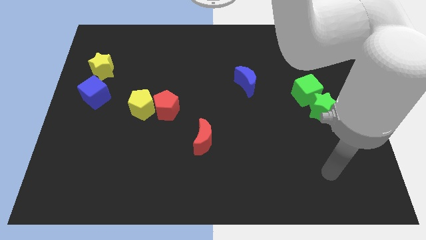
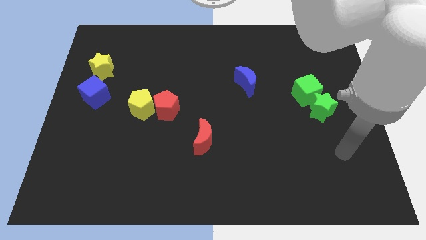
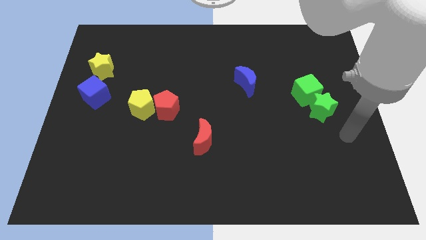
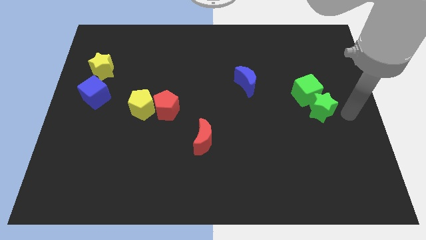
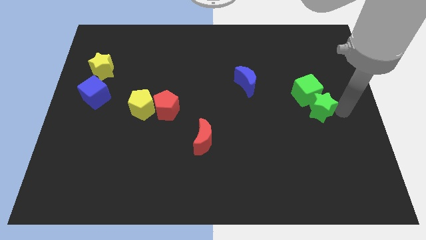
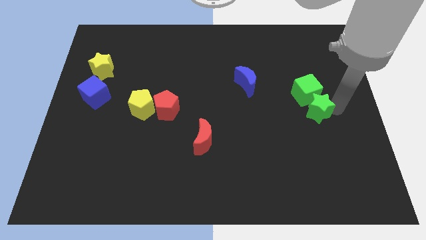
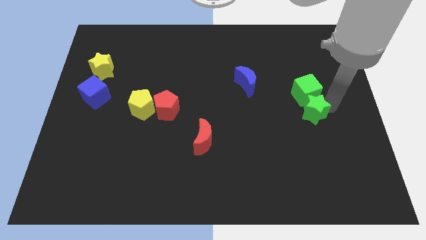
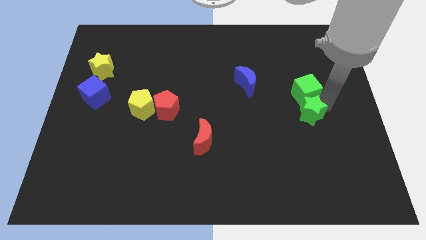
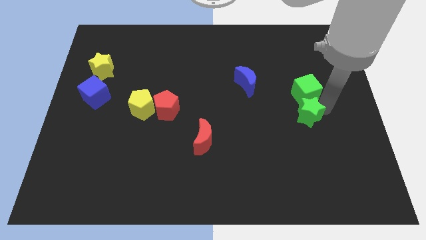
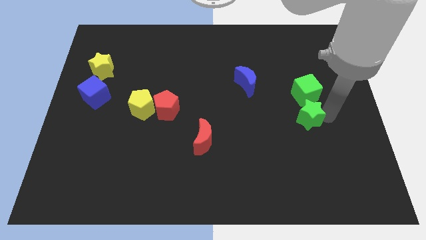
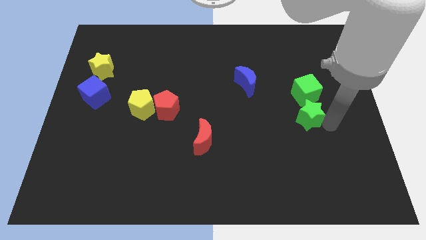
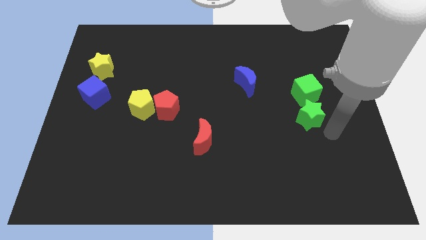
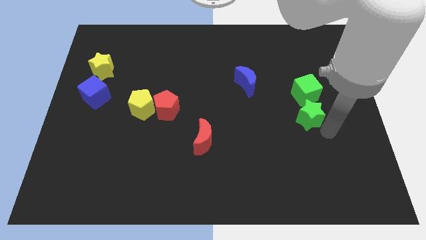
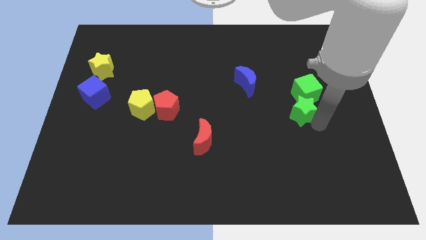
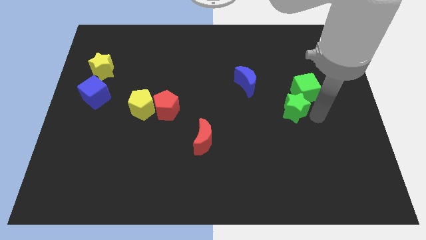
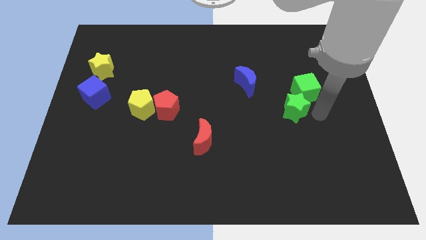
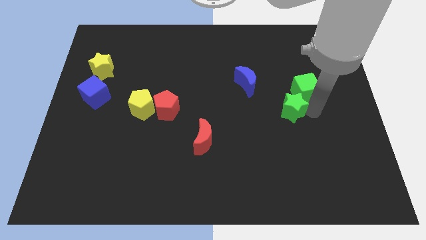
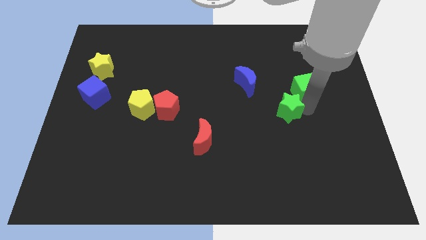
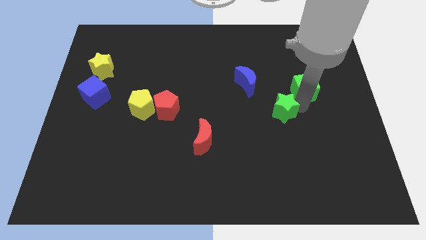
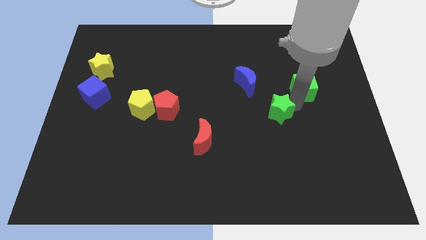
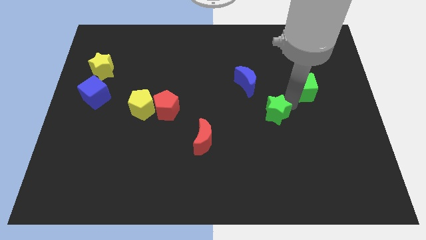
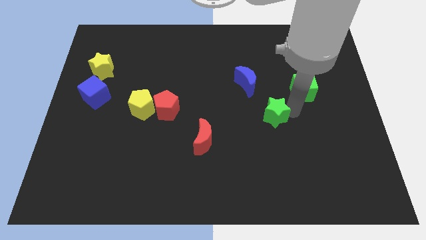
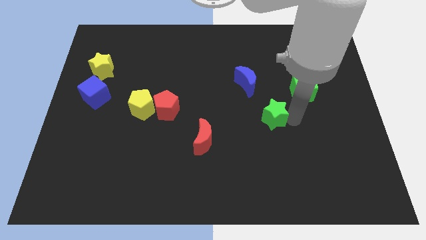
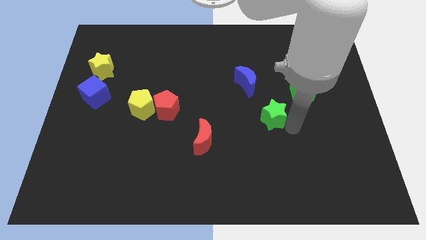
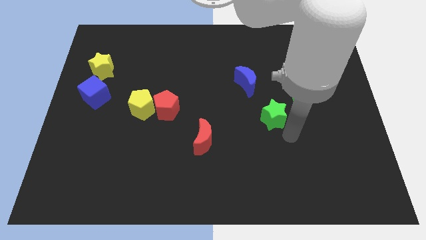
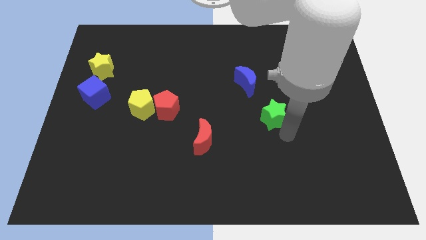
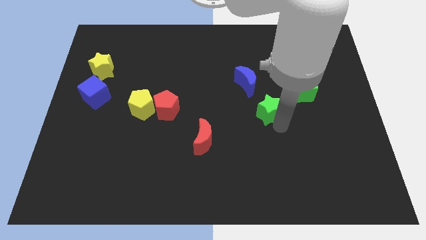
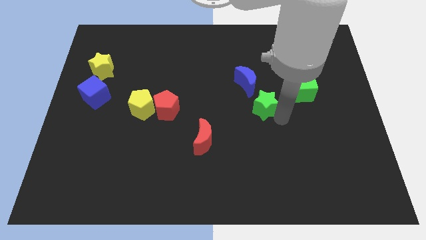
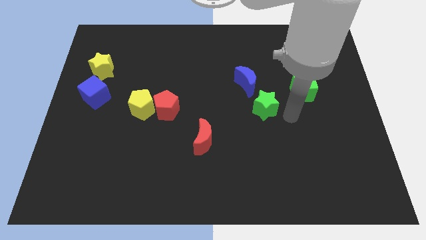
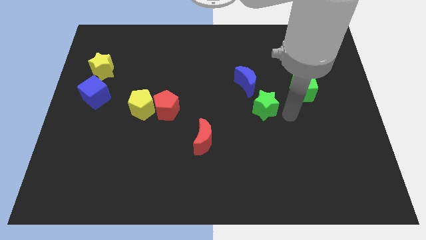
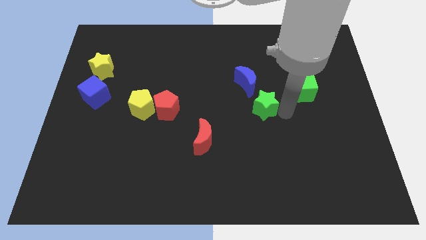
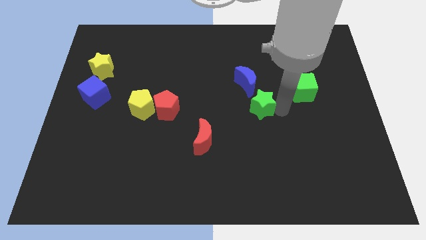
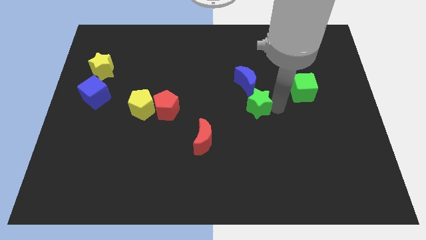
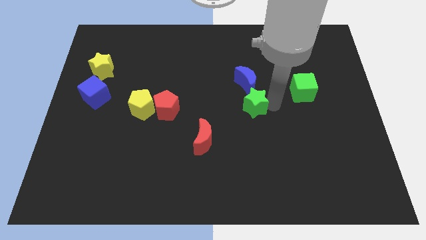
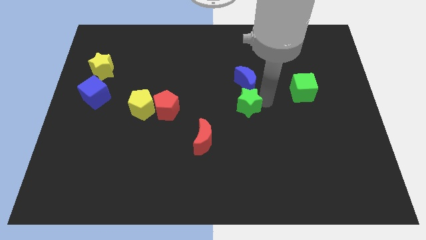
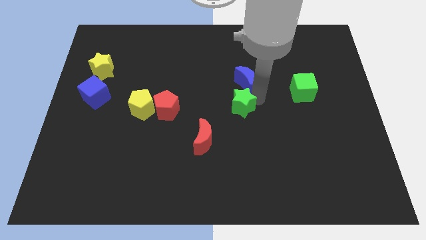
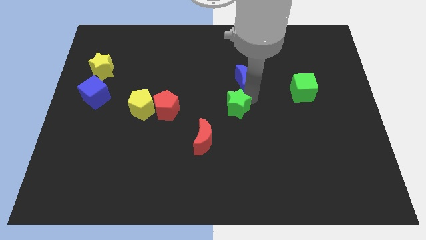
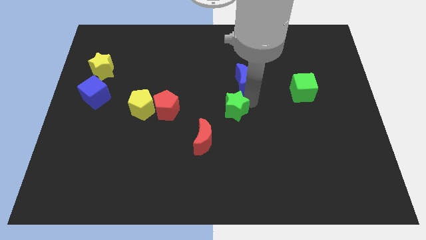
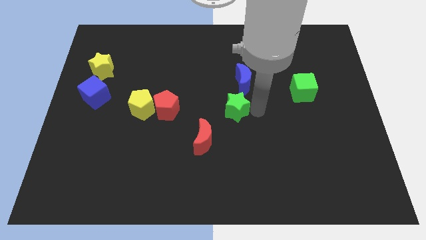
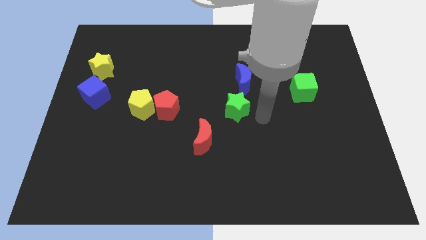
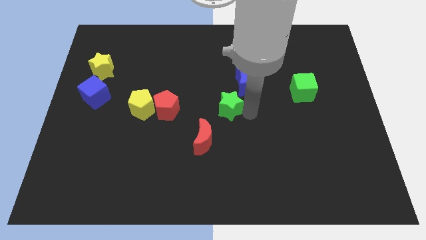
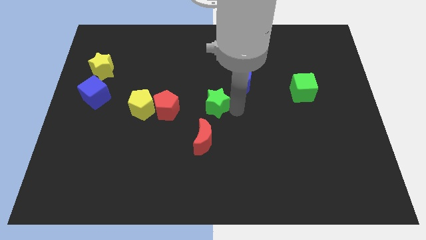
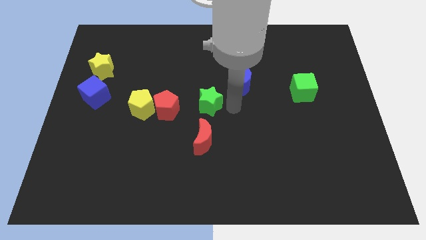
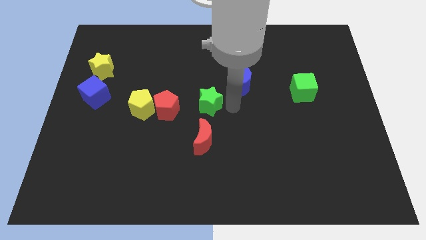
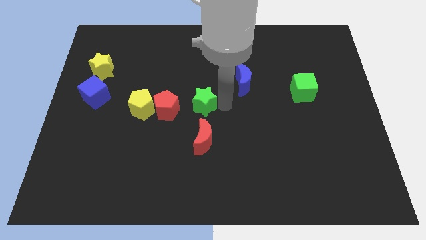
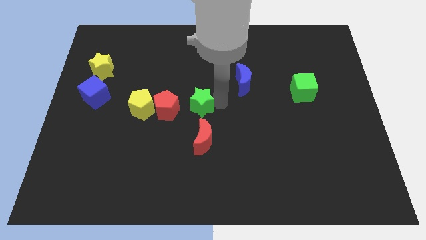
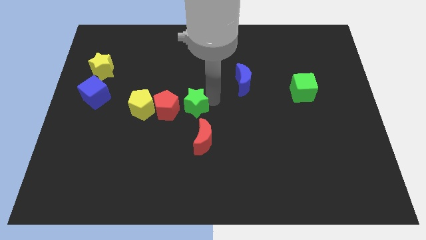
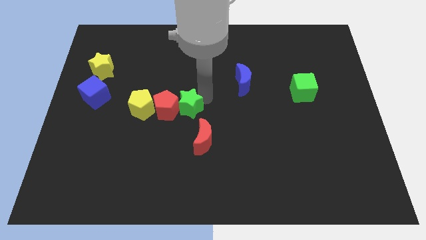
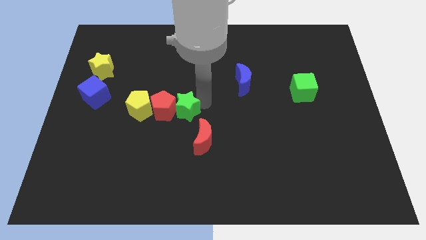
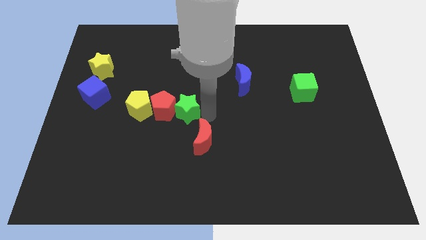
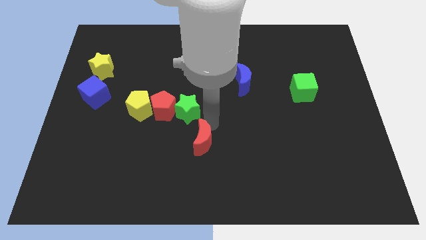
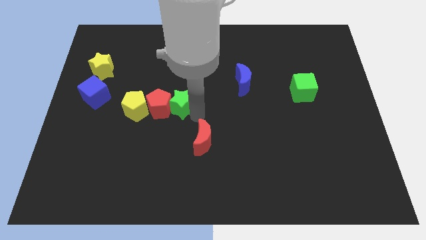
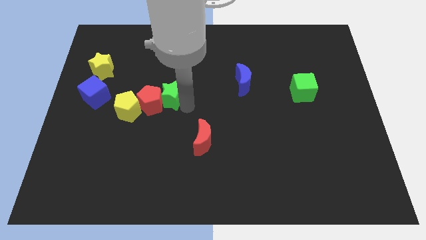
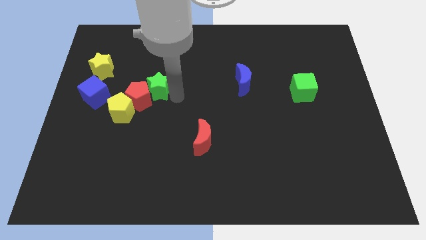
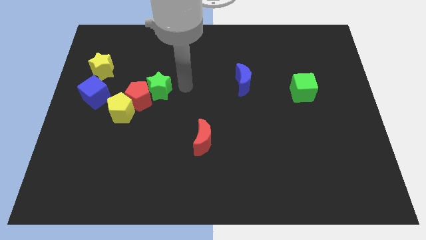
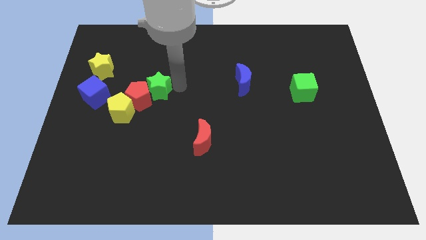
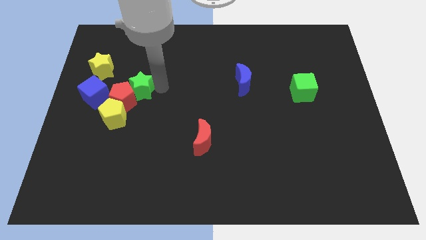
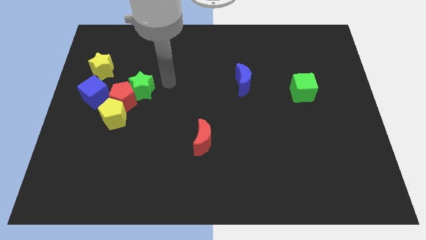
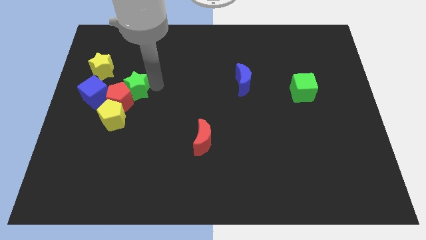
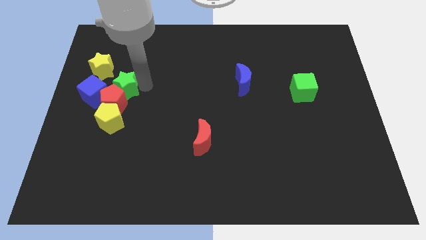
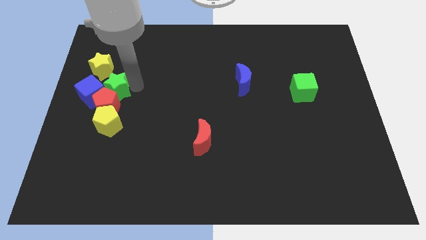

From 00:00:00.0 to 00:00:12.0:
slide the green star towards the blue cube

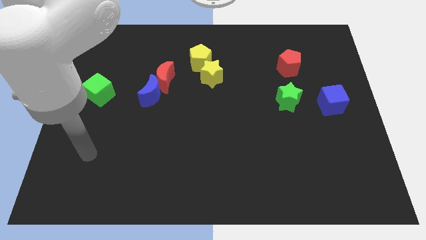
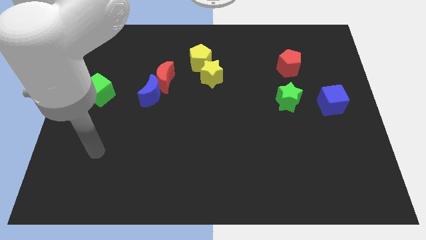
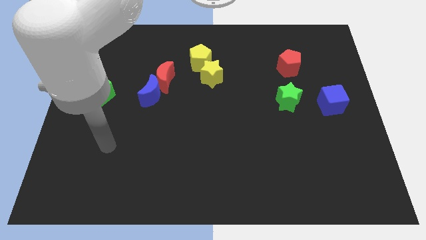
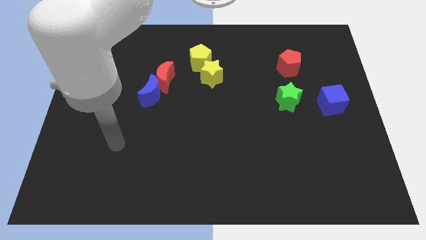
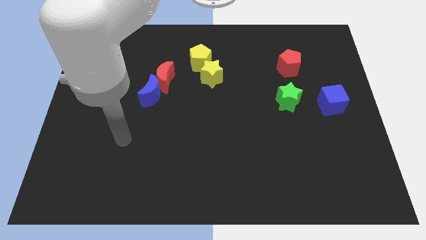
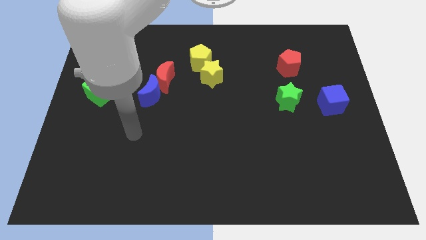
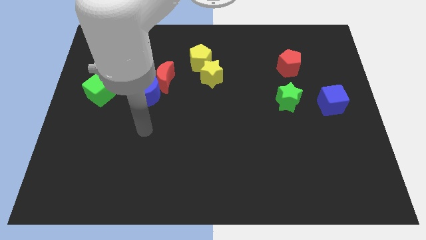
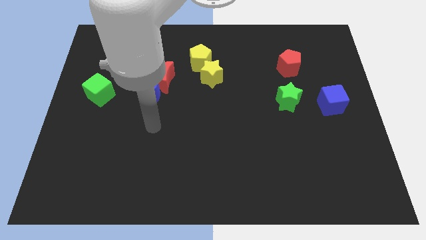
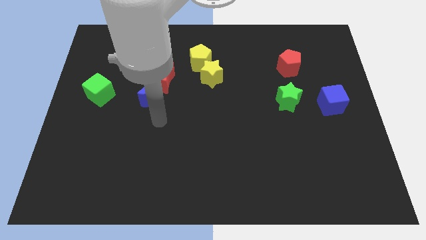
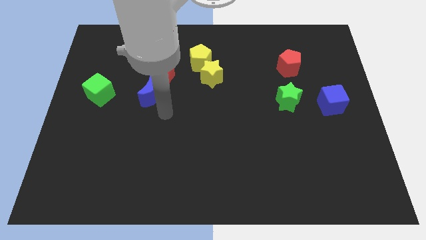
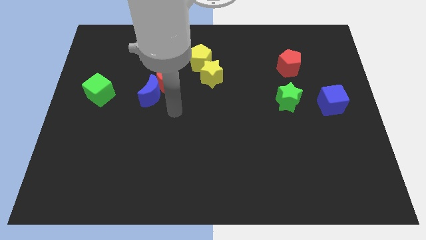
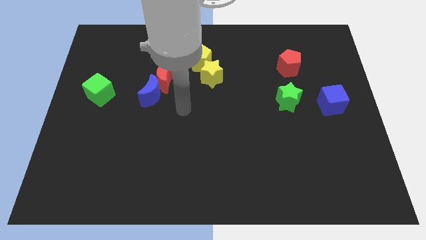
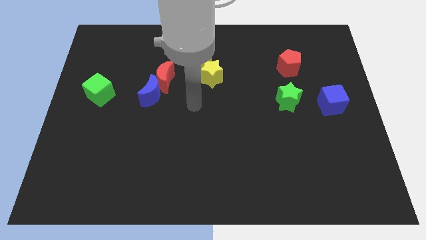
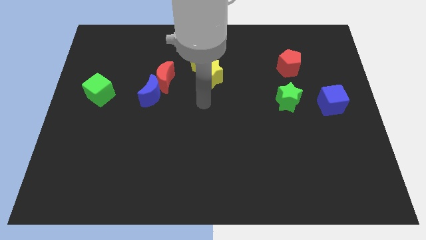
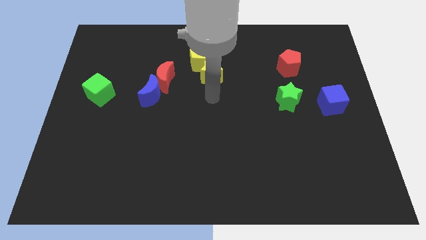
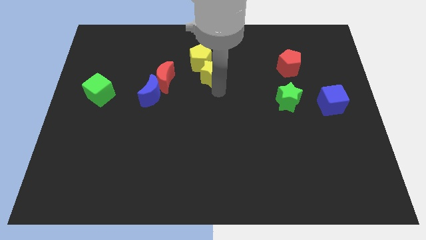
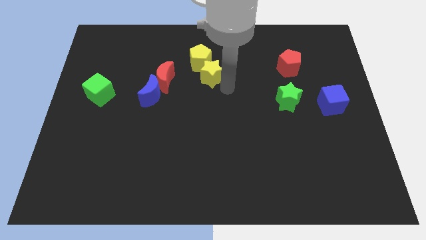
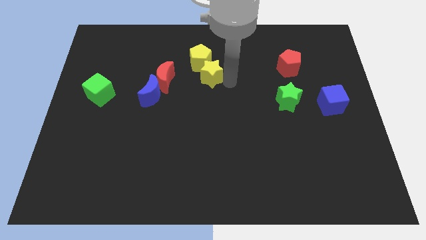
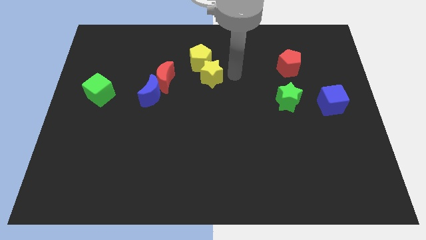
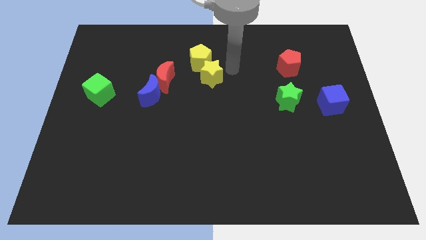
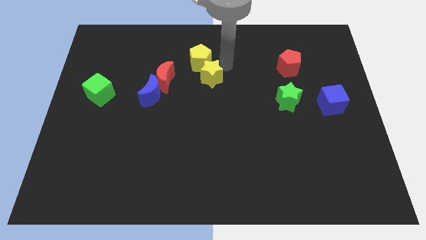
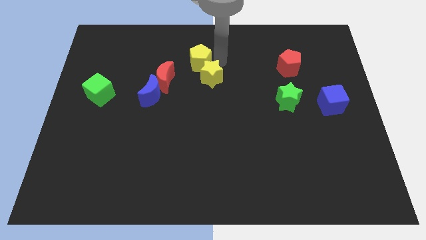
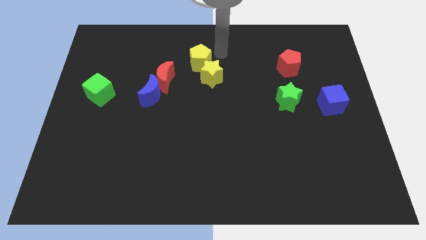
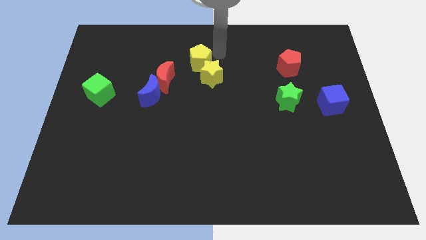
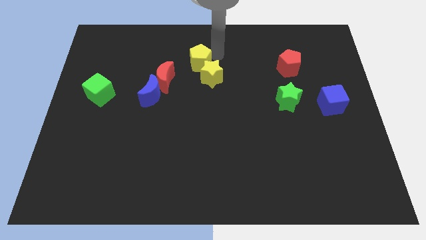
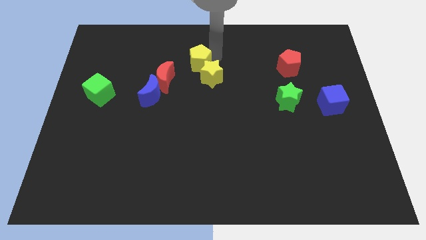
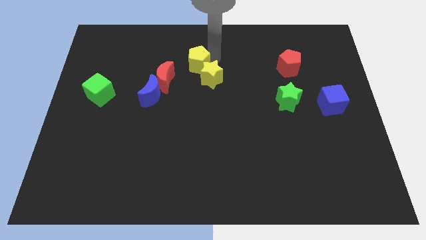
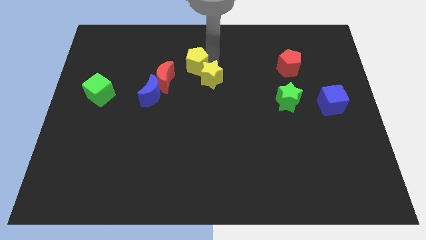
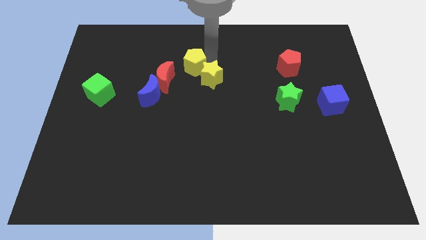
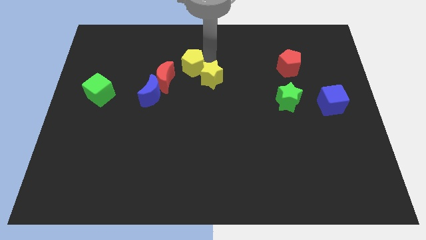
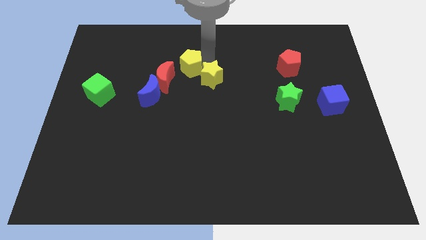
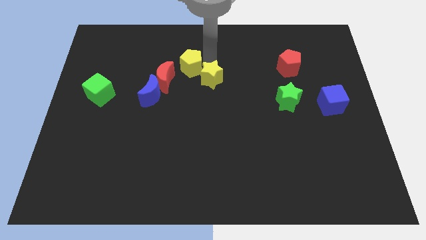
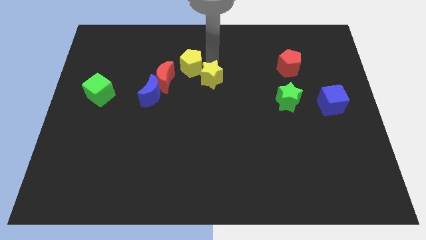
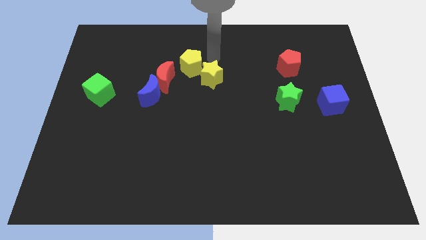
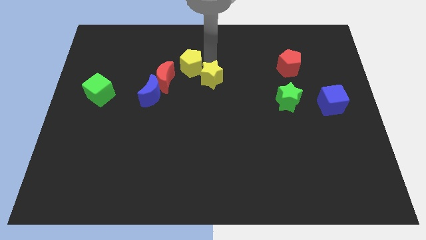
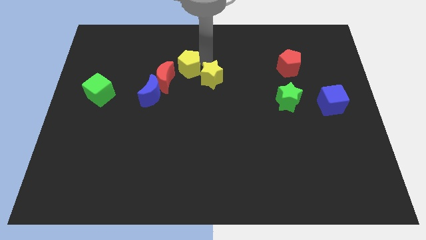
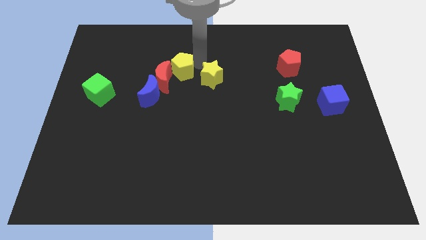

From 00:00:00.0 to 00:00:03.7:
push the yellow pentagon to the red moon
